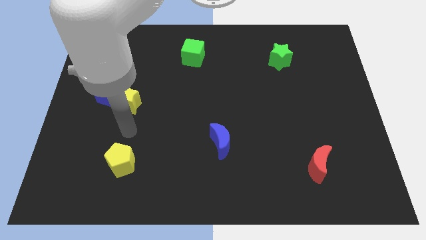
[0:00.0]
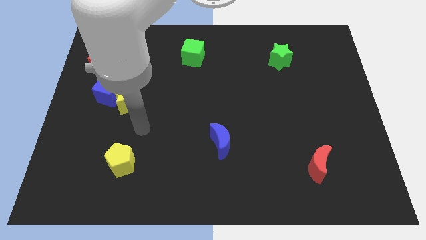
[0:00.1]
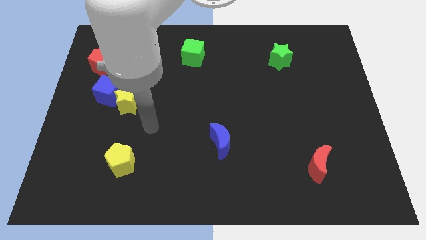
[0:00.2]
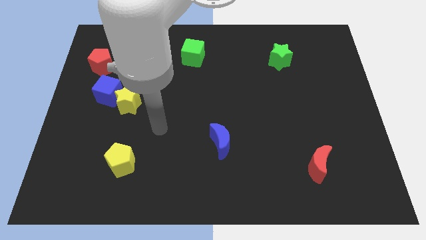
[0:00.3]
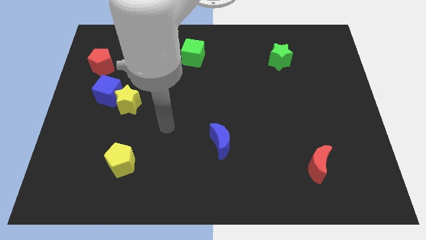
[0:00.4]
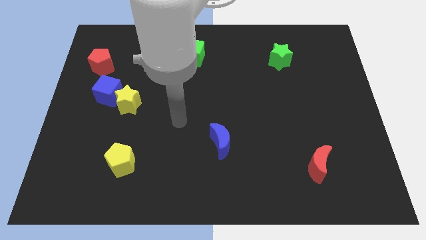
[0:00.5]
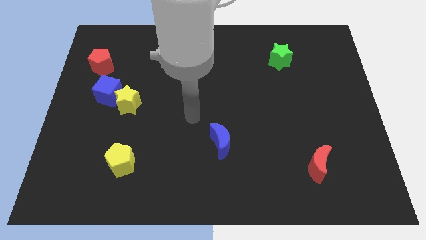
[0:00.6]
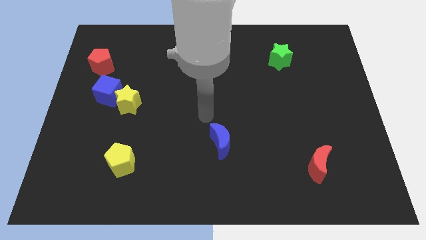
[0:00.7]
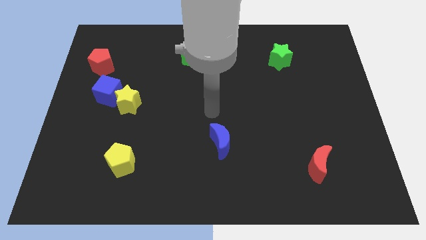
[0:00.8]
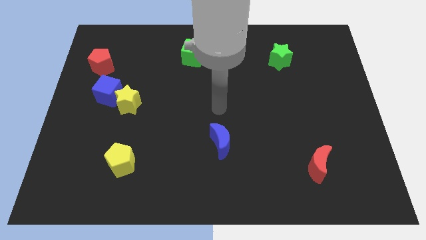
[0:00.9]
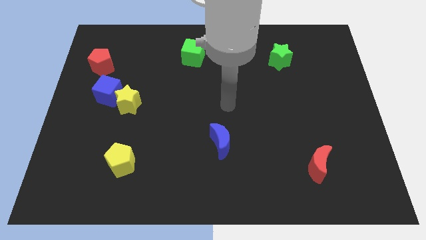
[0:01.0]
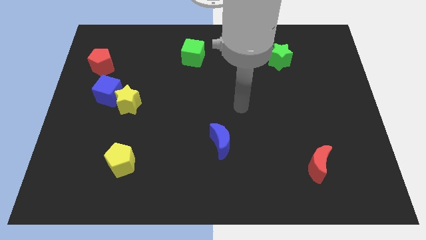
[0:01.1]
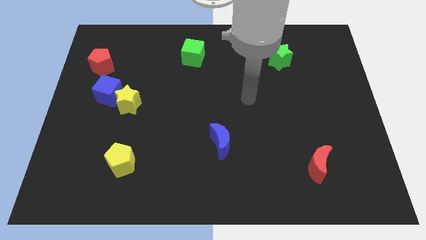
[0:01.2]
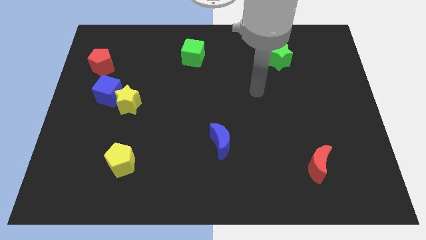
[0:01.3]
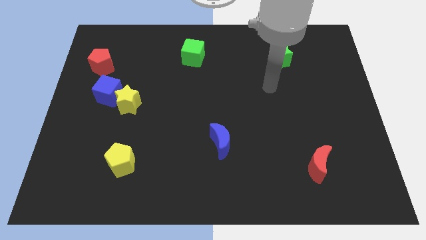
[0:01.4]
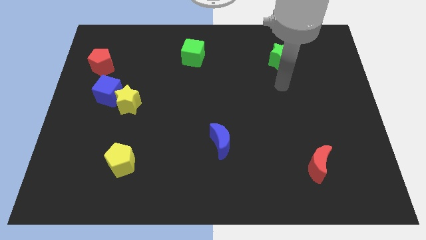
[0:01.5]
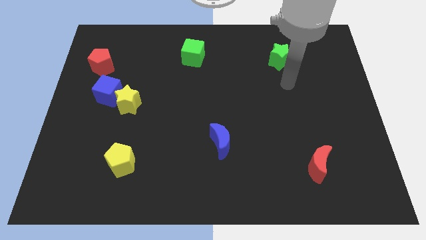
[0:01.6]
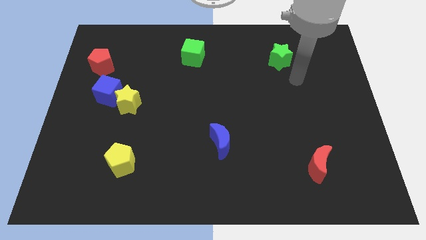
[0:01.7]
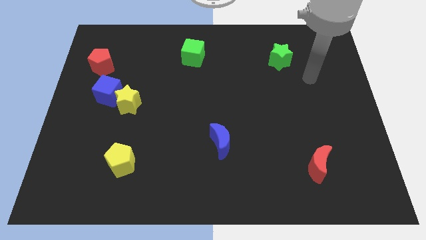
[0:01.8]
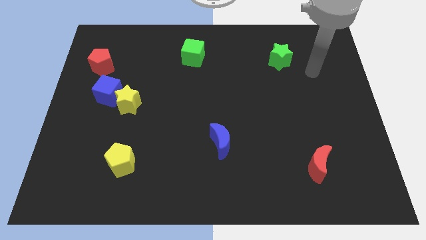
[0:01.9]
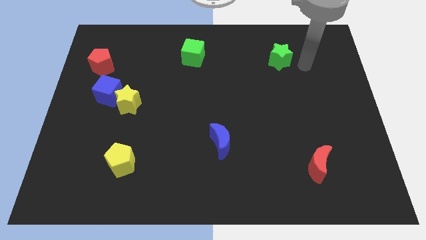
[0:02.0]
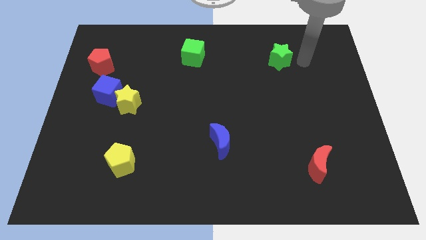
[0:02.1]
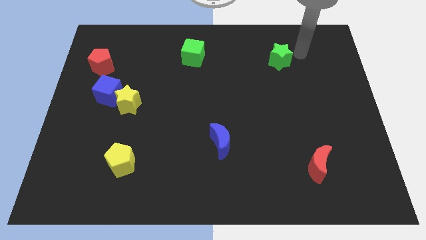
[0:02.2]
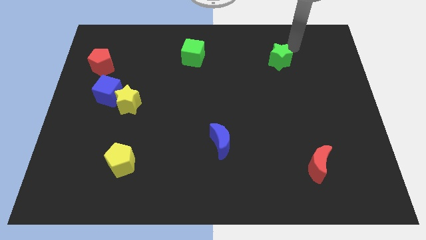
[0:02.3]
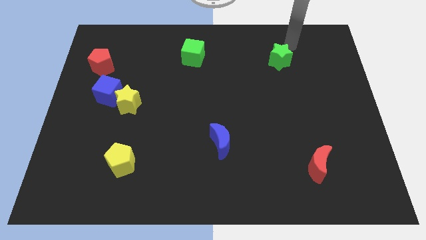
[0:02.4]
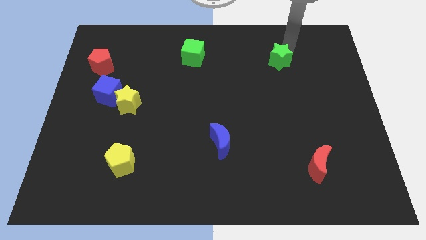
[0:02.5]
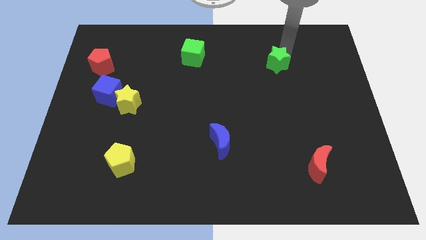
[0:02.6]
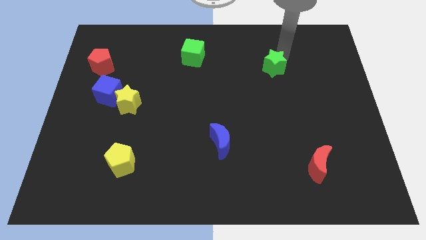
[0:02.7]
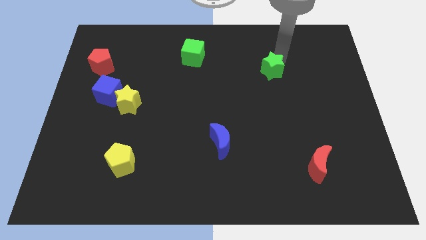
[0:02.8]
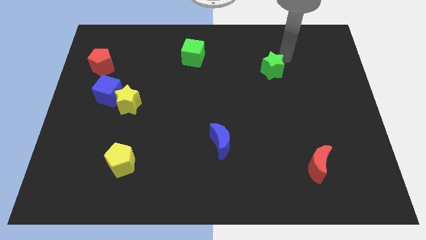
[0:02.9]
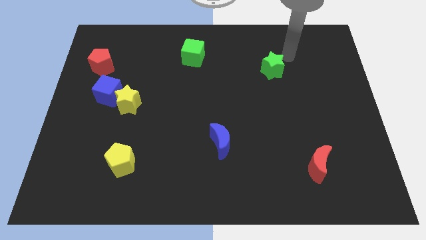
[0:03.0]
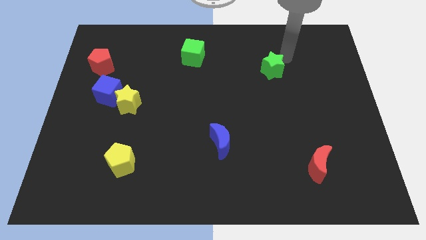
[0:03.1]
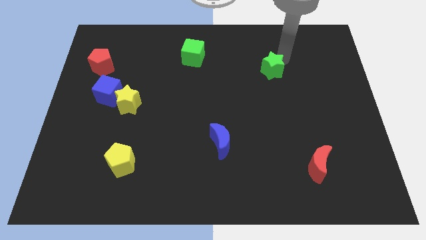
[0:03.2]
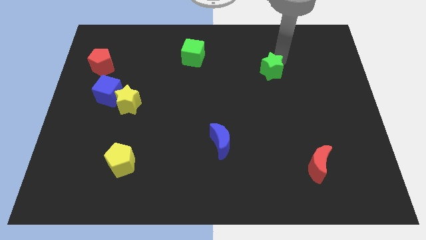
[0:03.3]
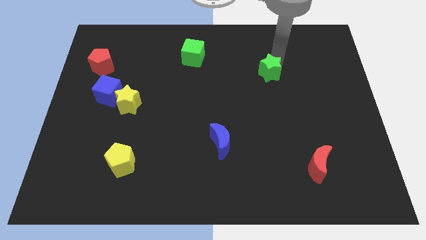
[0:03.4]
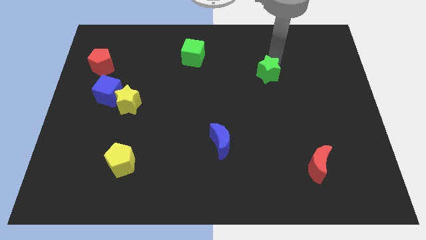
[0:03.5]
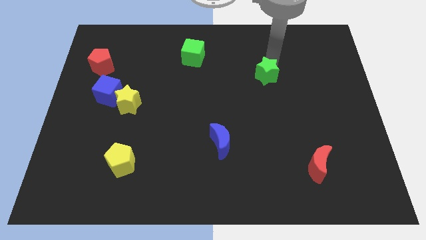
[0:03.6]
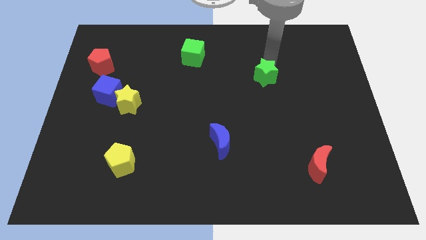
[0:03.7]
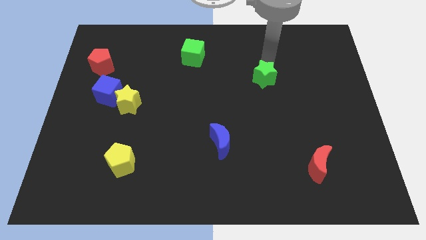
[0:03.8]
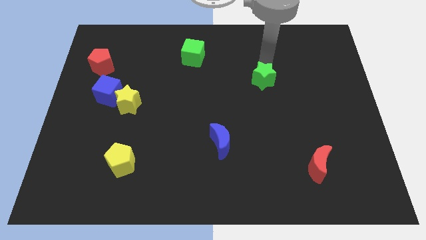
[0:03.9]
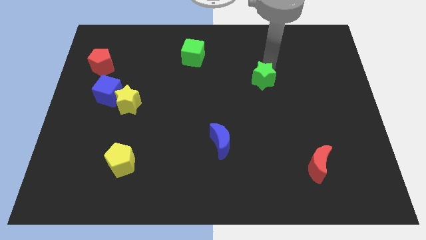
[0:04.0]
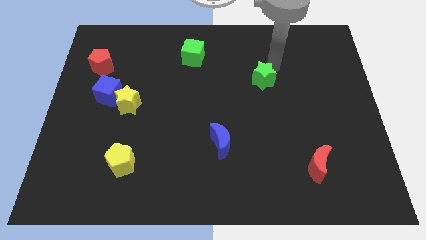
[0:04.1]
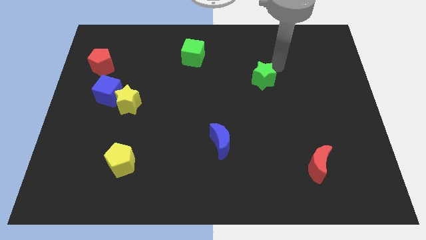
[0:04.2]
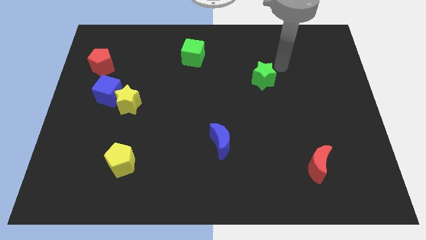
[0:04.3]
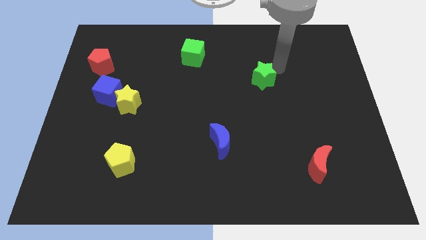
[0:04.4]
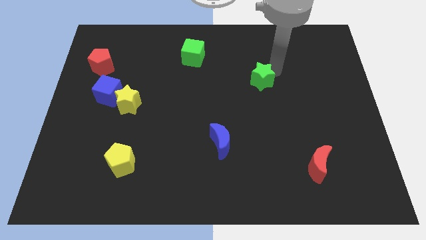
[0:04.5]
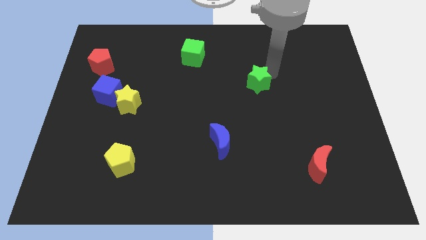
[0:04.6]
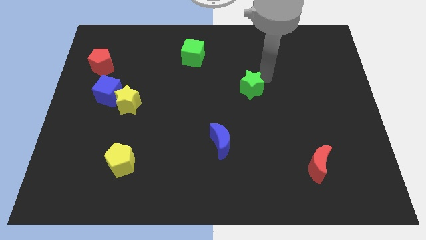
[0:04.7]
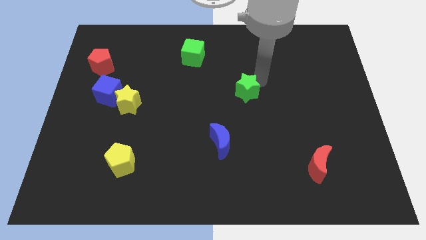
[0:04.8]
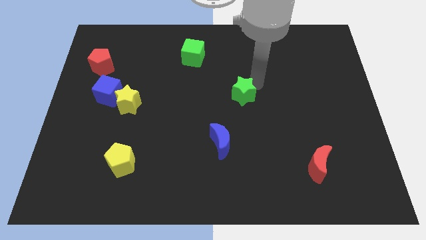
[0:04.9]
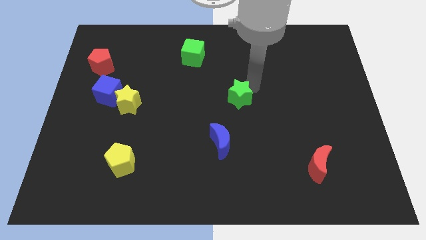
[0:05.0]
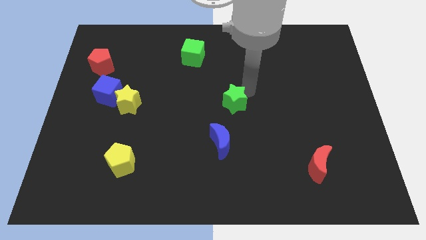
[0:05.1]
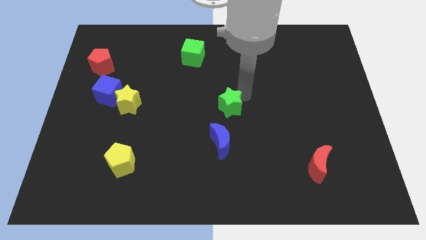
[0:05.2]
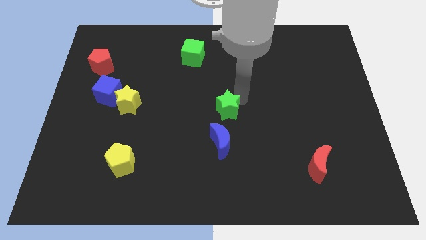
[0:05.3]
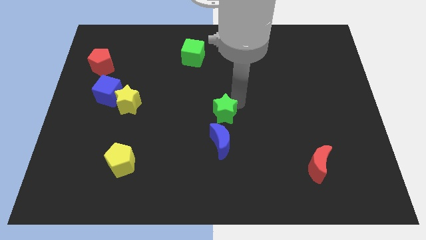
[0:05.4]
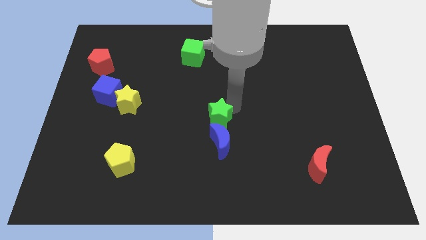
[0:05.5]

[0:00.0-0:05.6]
move the green star diagonally up and to the left of the blue moon

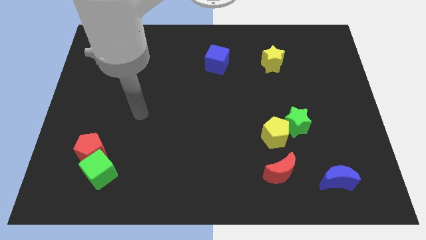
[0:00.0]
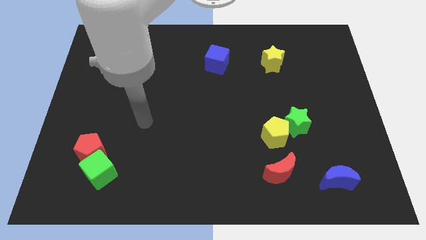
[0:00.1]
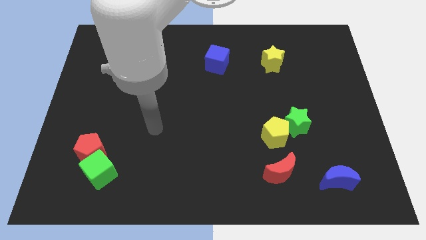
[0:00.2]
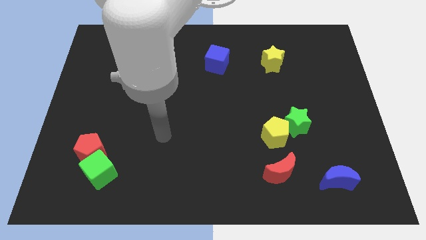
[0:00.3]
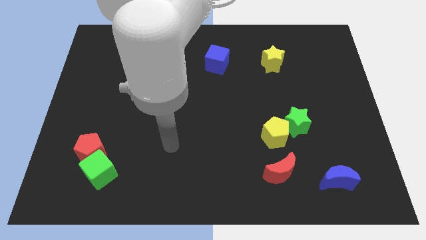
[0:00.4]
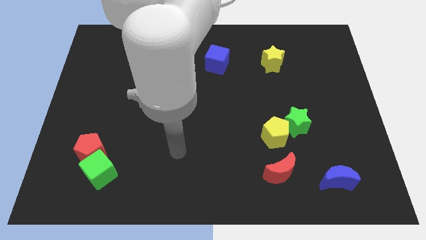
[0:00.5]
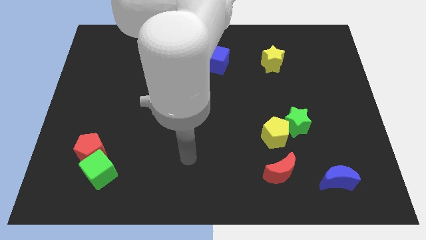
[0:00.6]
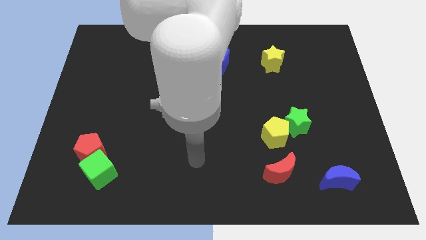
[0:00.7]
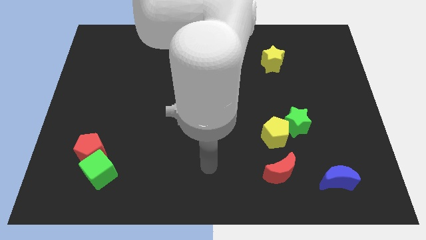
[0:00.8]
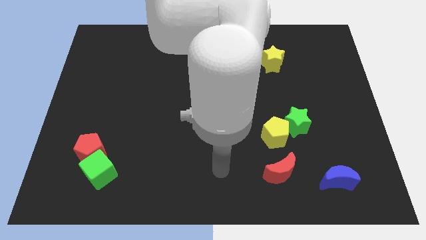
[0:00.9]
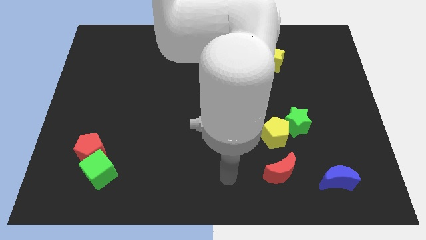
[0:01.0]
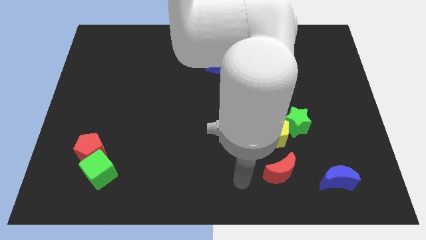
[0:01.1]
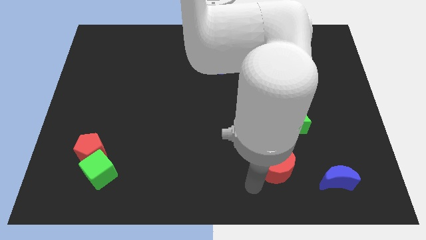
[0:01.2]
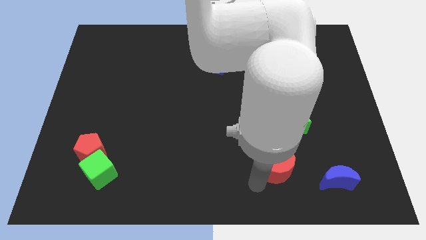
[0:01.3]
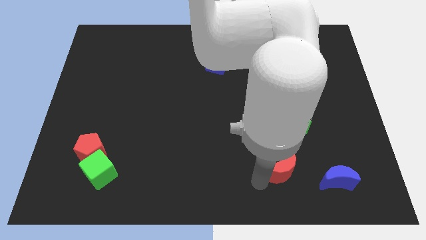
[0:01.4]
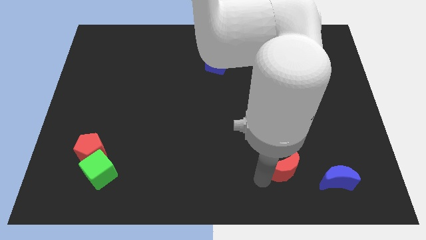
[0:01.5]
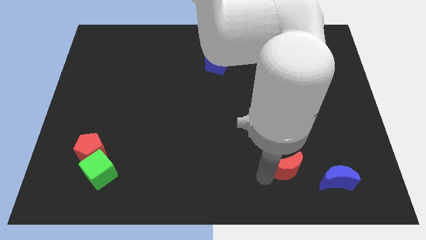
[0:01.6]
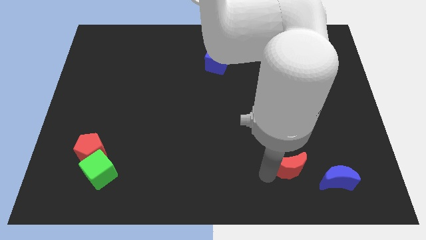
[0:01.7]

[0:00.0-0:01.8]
slide the red moon to the top left side of the blue moon
